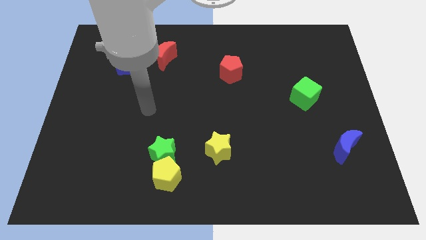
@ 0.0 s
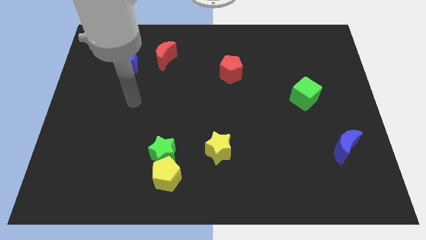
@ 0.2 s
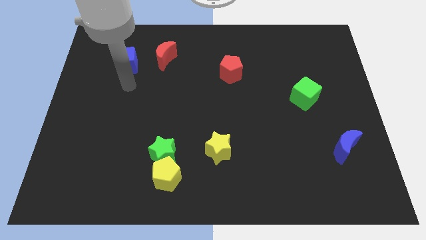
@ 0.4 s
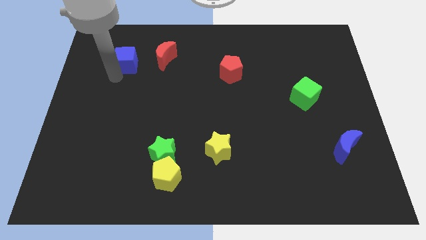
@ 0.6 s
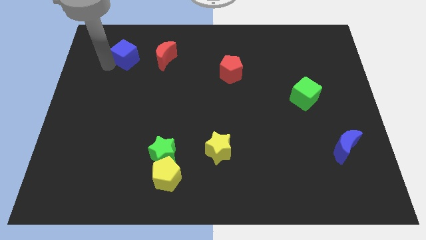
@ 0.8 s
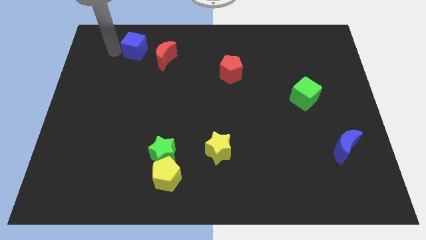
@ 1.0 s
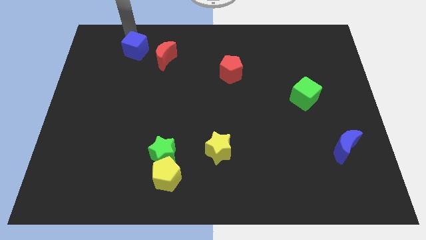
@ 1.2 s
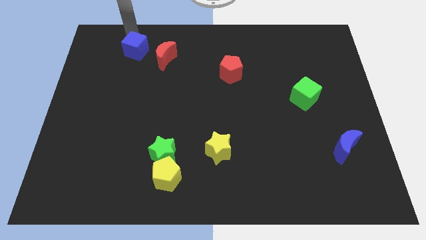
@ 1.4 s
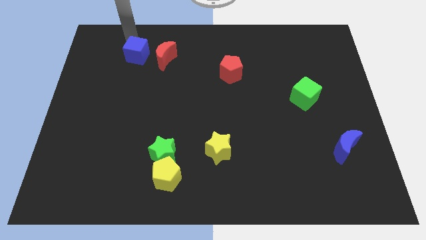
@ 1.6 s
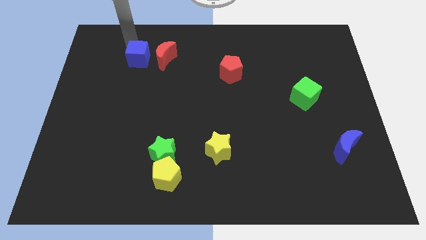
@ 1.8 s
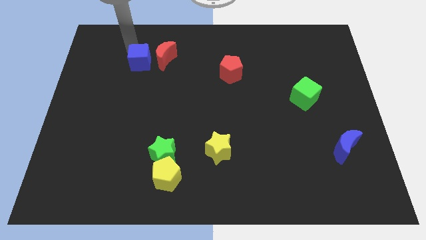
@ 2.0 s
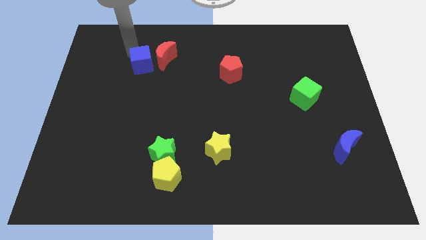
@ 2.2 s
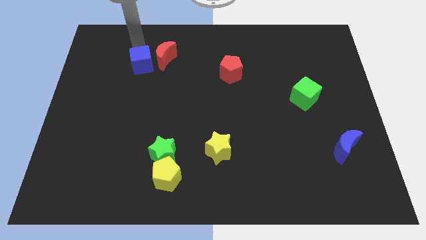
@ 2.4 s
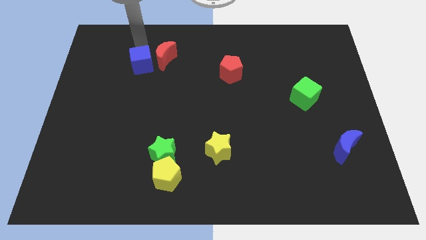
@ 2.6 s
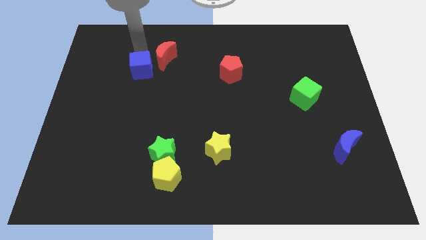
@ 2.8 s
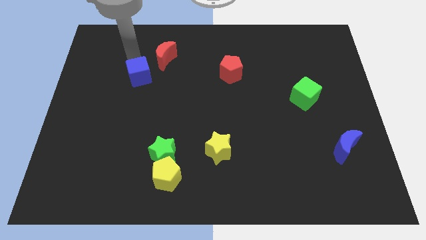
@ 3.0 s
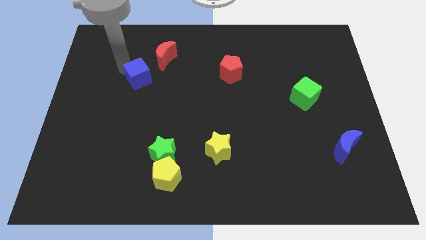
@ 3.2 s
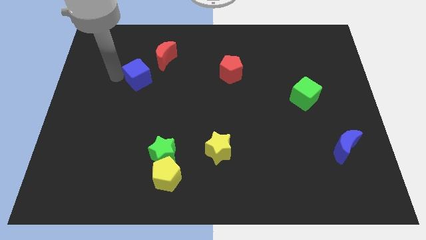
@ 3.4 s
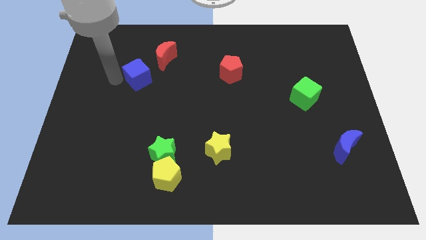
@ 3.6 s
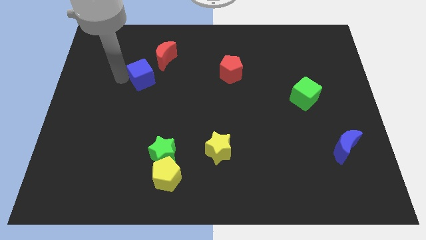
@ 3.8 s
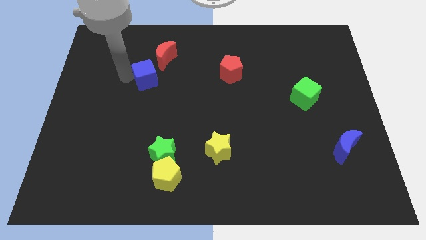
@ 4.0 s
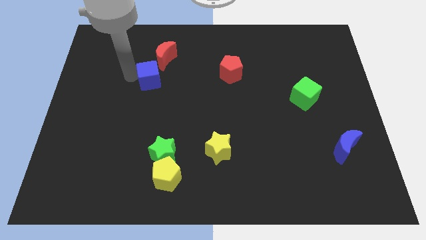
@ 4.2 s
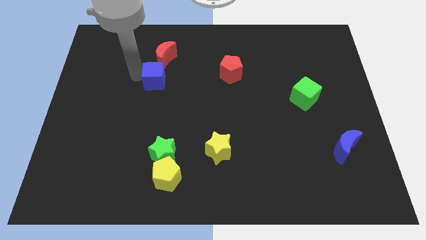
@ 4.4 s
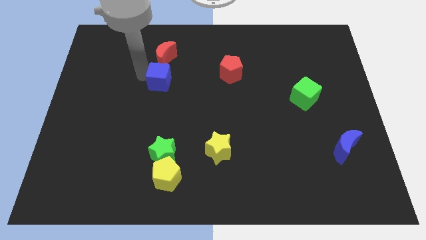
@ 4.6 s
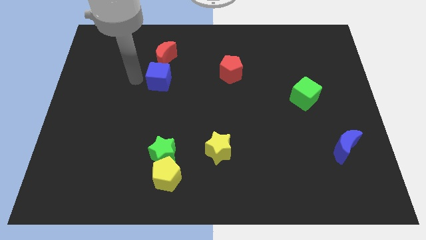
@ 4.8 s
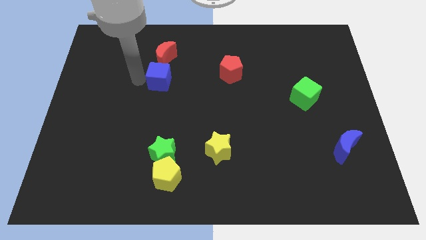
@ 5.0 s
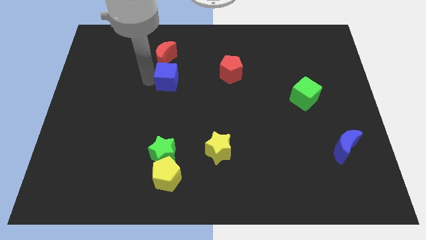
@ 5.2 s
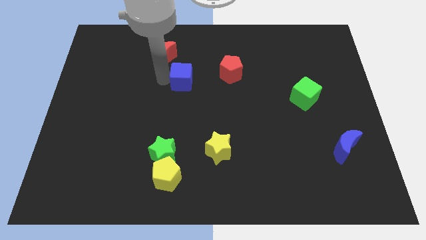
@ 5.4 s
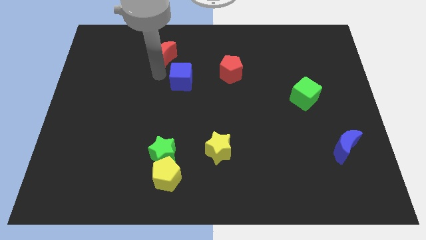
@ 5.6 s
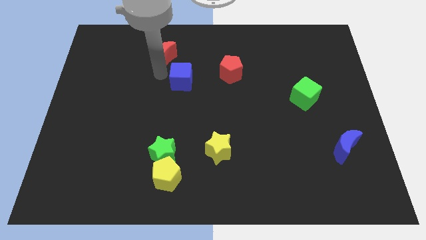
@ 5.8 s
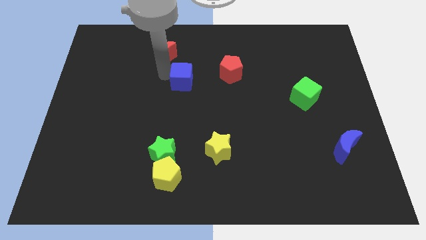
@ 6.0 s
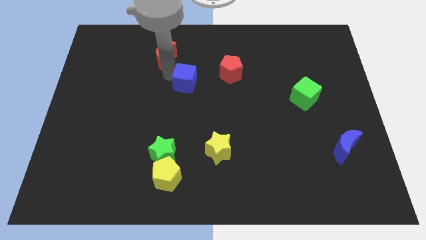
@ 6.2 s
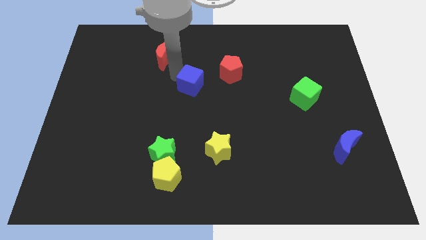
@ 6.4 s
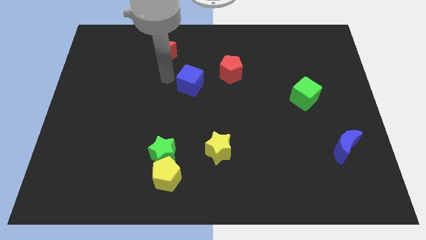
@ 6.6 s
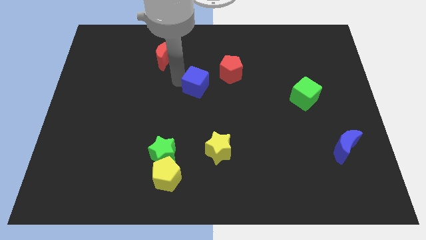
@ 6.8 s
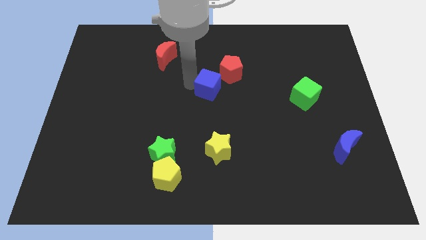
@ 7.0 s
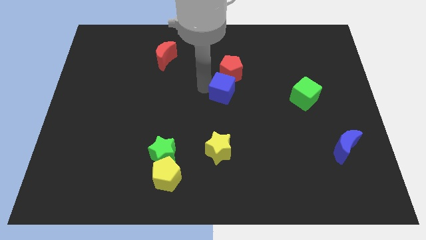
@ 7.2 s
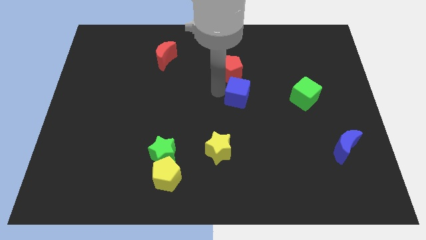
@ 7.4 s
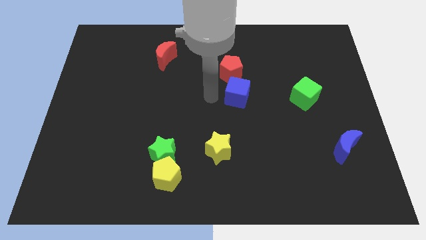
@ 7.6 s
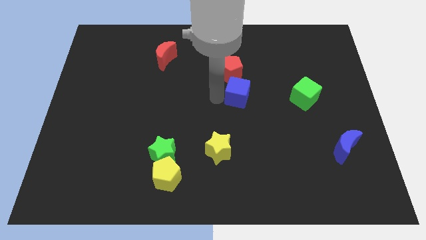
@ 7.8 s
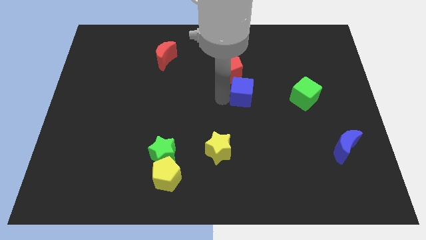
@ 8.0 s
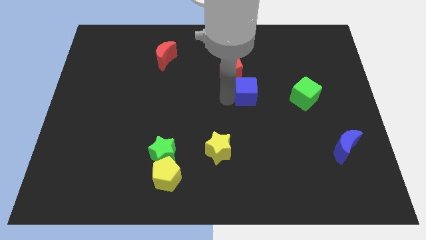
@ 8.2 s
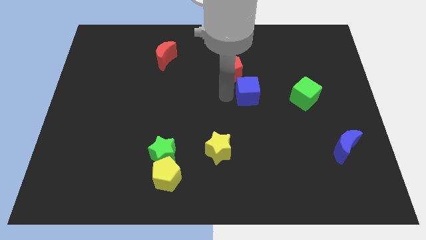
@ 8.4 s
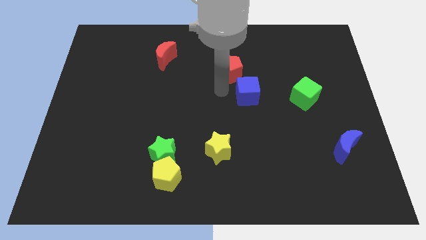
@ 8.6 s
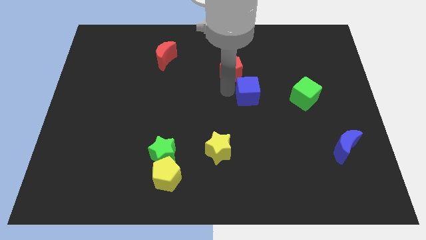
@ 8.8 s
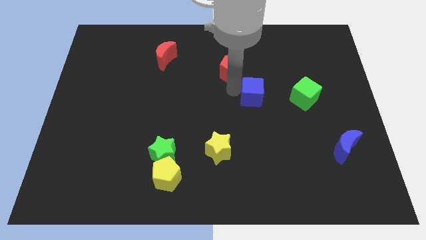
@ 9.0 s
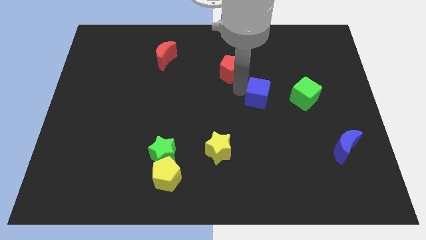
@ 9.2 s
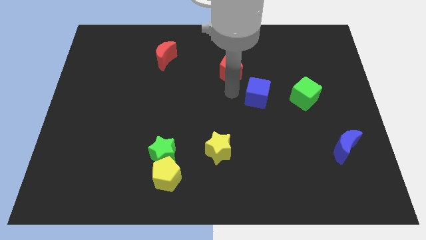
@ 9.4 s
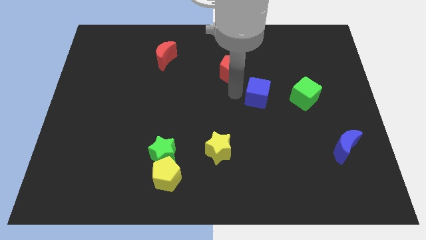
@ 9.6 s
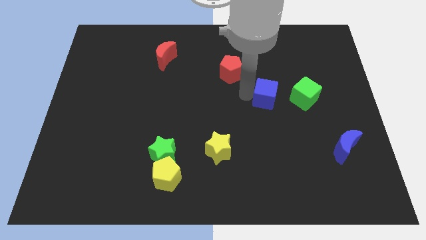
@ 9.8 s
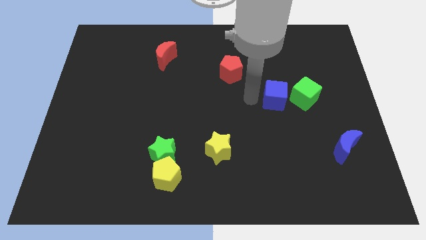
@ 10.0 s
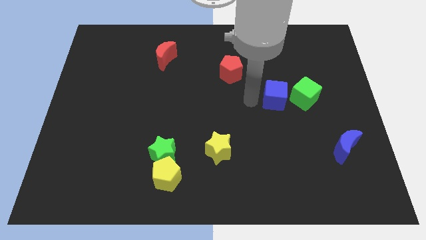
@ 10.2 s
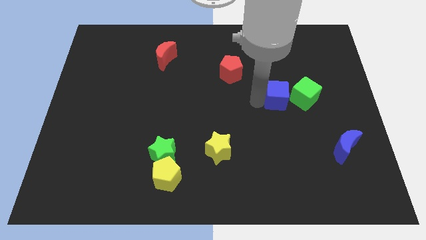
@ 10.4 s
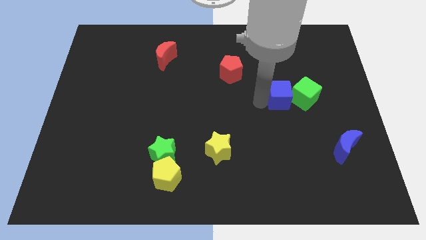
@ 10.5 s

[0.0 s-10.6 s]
push the blue cube close to the green cube

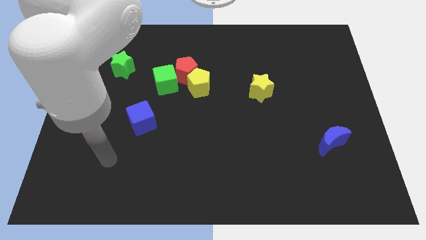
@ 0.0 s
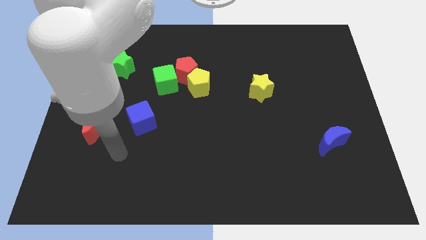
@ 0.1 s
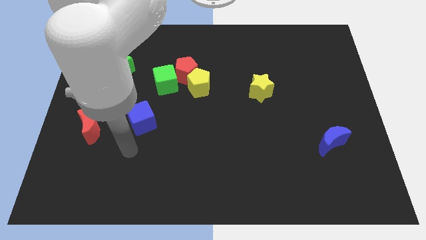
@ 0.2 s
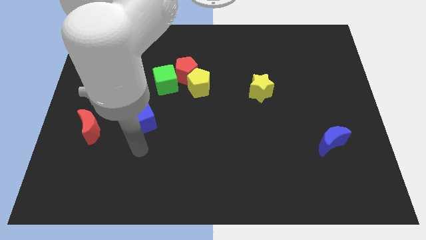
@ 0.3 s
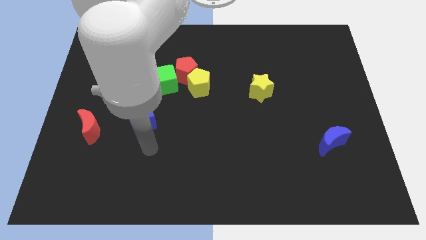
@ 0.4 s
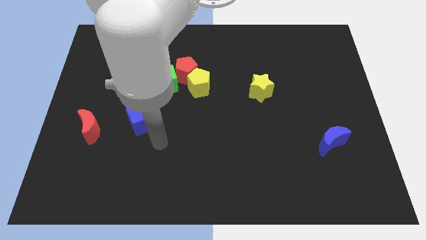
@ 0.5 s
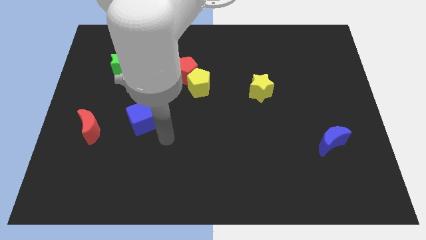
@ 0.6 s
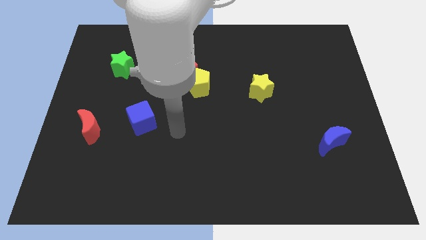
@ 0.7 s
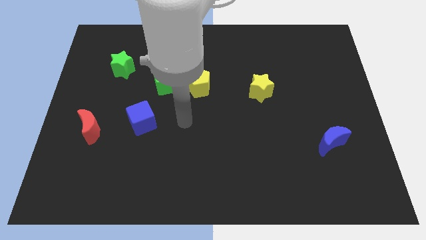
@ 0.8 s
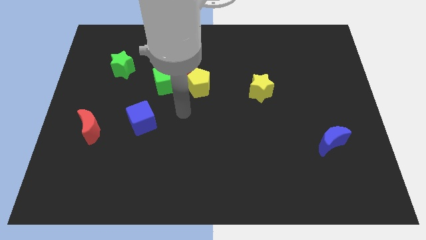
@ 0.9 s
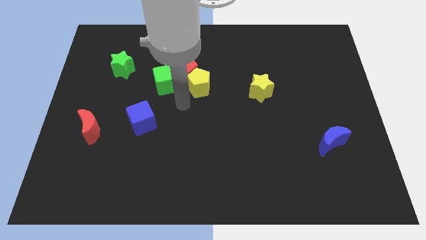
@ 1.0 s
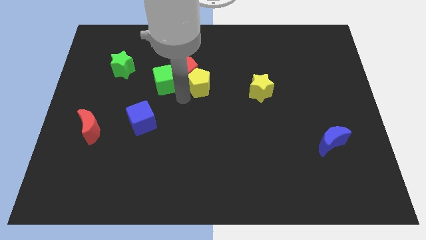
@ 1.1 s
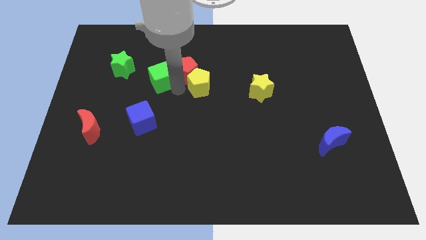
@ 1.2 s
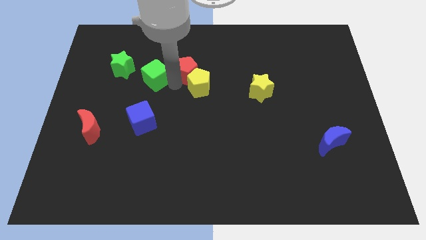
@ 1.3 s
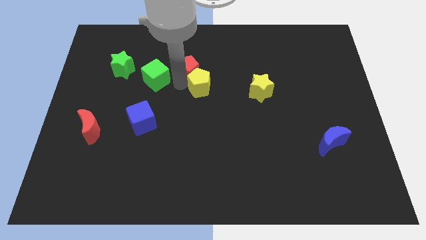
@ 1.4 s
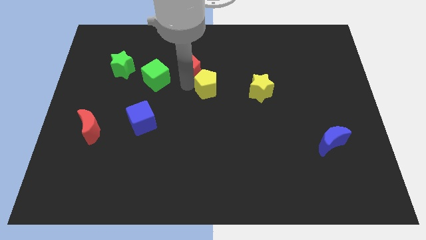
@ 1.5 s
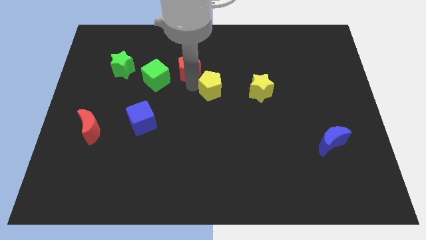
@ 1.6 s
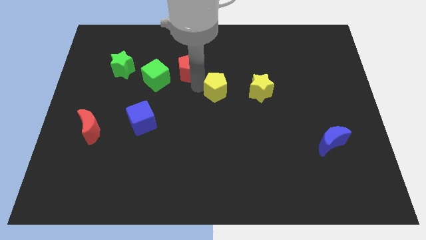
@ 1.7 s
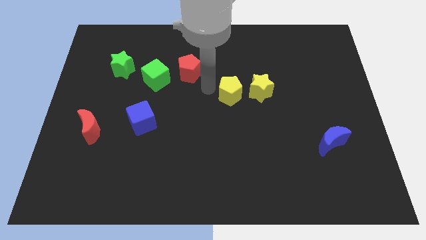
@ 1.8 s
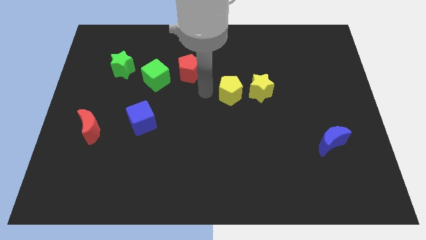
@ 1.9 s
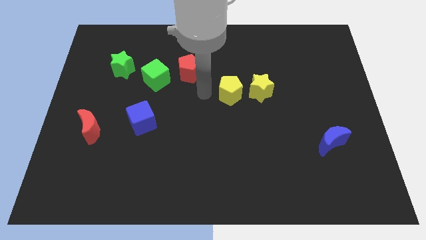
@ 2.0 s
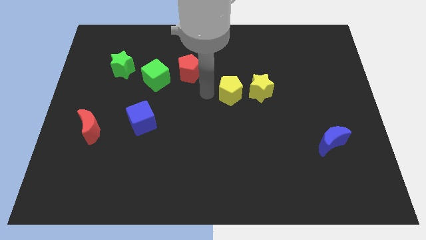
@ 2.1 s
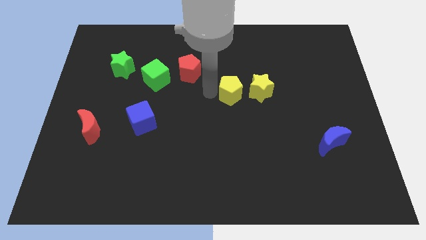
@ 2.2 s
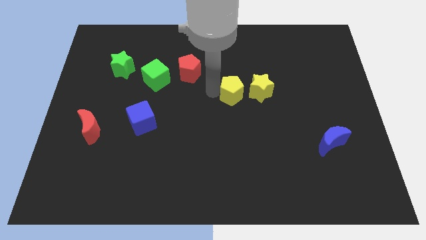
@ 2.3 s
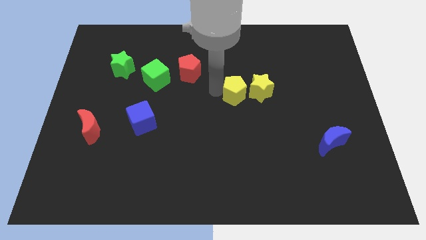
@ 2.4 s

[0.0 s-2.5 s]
push the yellow pentagon to the yellow star
